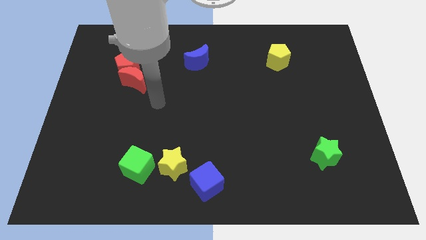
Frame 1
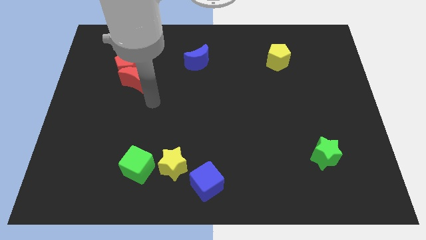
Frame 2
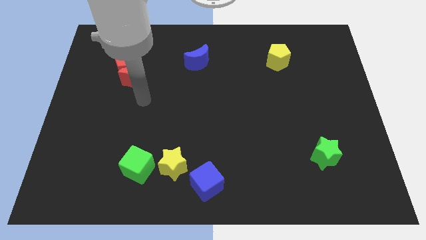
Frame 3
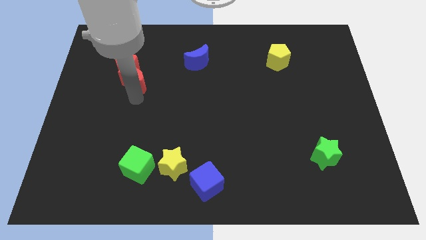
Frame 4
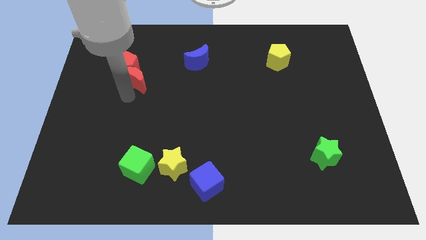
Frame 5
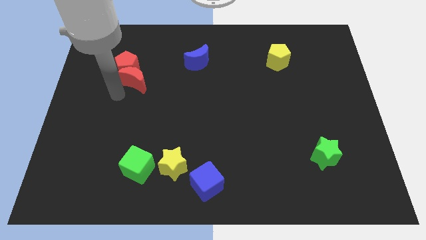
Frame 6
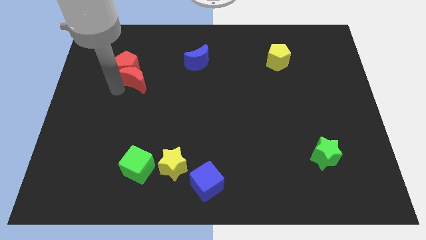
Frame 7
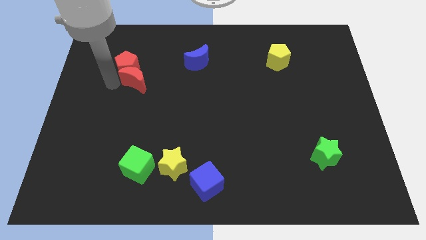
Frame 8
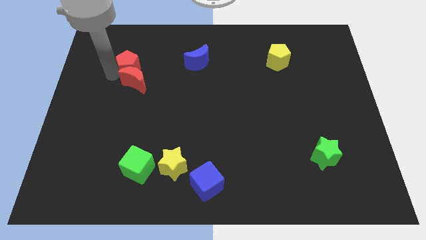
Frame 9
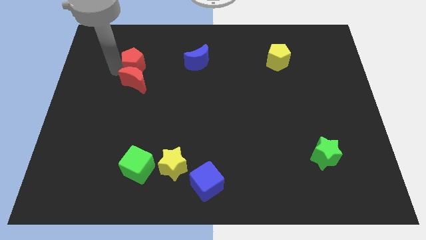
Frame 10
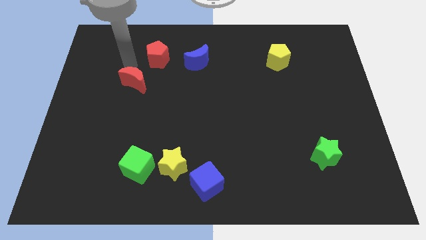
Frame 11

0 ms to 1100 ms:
move the red moon away from the red pentagon

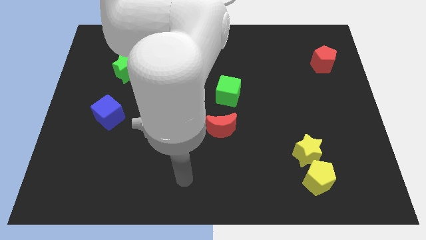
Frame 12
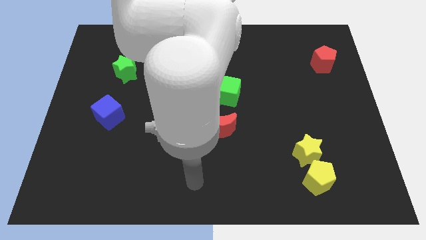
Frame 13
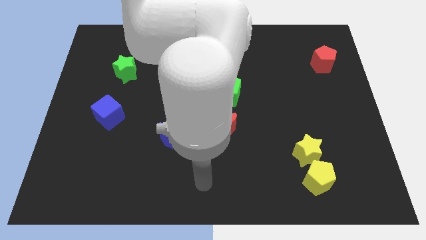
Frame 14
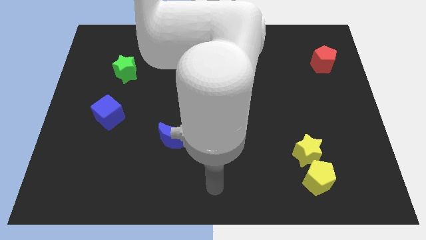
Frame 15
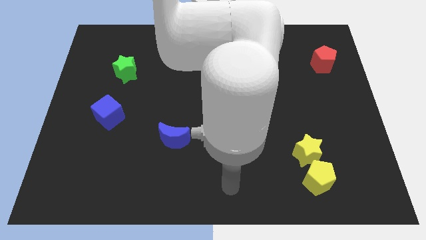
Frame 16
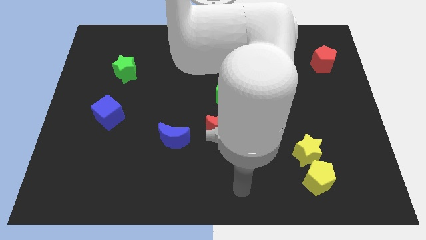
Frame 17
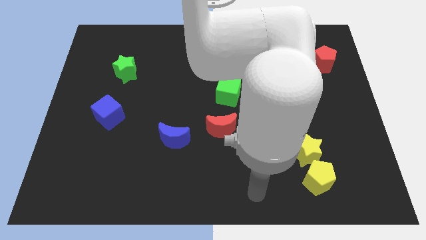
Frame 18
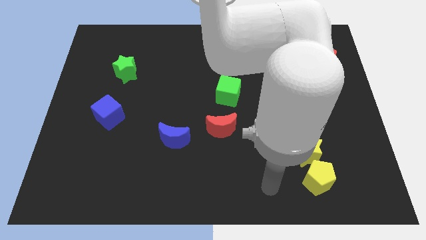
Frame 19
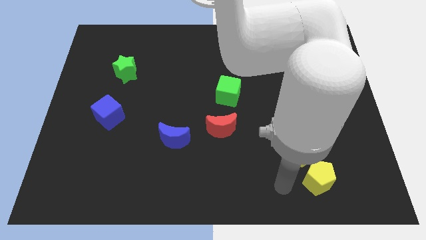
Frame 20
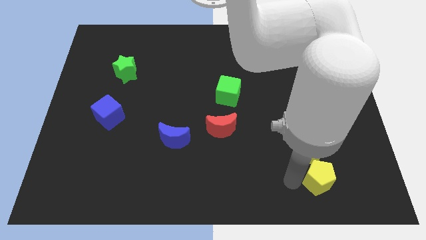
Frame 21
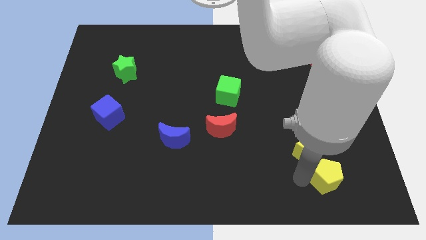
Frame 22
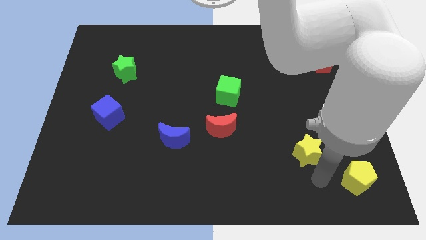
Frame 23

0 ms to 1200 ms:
separate the yellow star from the yellow pentagon

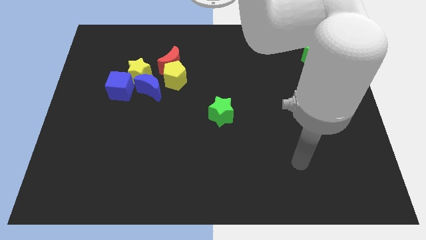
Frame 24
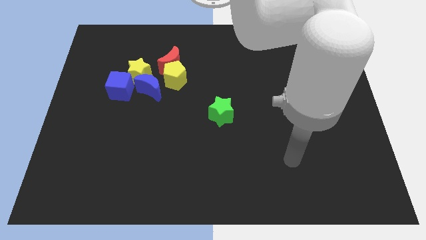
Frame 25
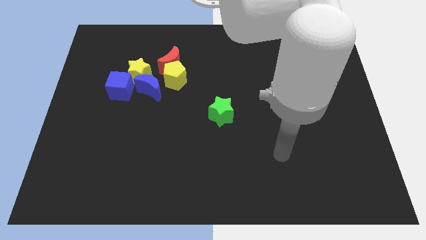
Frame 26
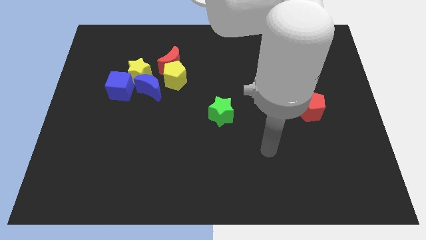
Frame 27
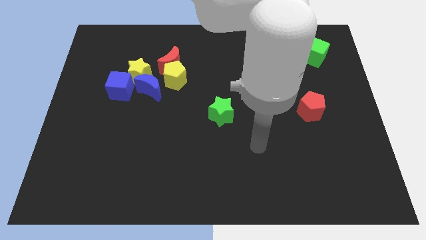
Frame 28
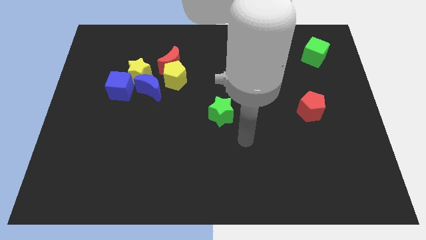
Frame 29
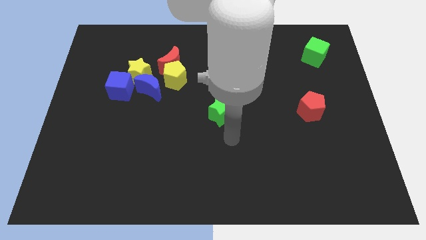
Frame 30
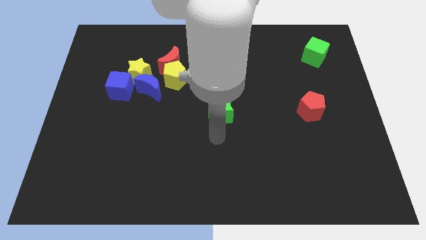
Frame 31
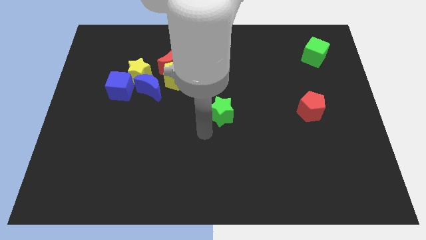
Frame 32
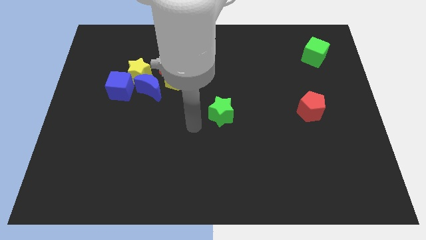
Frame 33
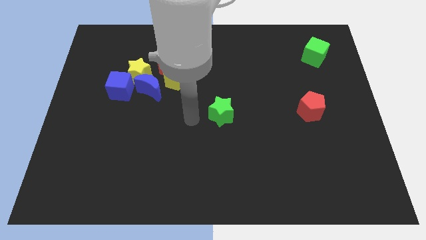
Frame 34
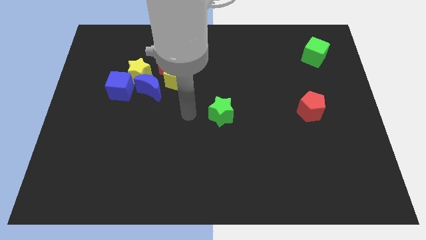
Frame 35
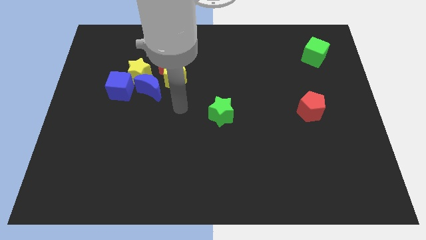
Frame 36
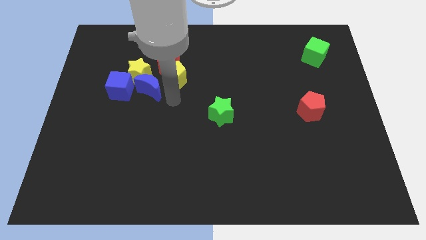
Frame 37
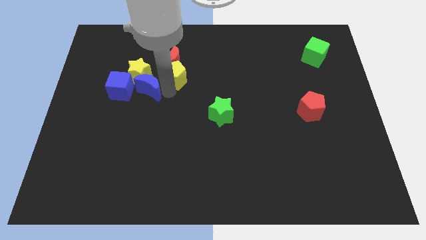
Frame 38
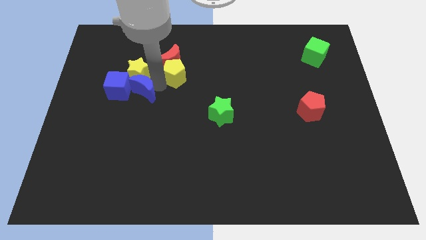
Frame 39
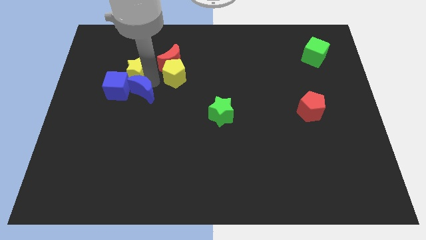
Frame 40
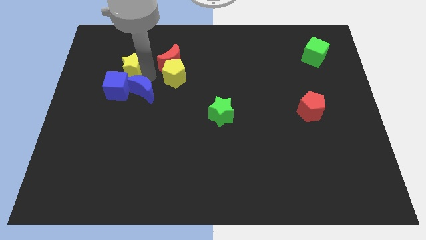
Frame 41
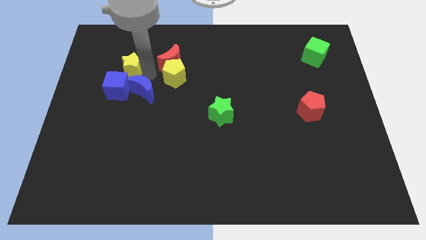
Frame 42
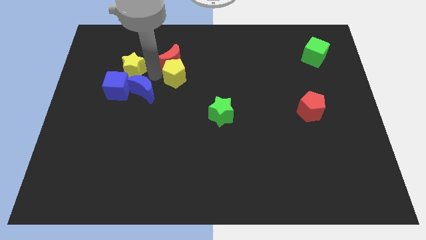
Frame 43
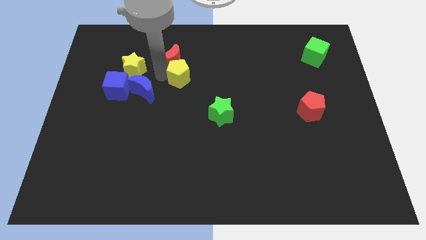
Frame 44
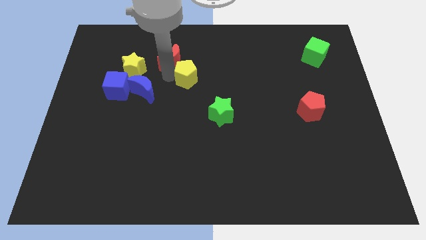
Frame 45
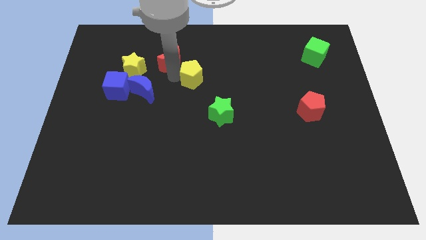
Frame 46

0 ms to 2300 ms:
separate the yellow pentagon from the group of blocks

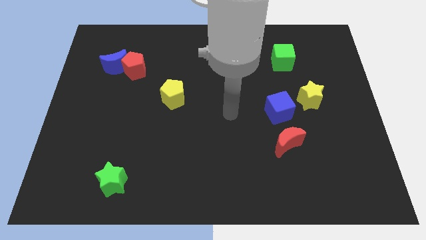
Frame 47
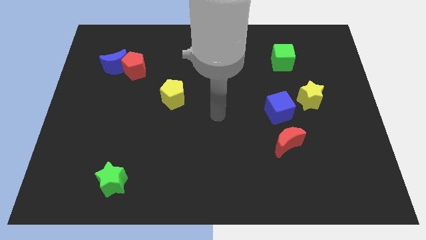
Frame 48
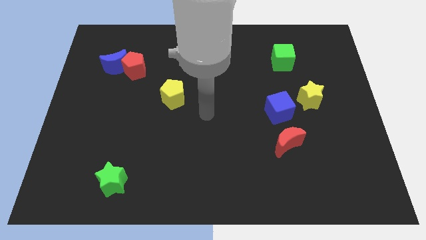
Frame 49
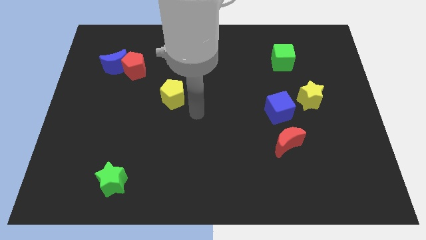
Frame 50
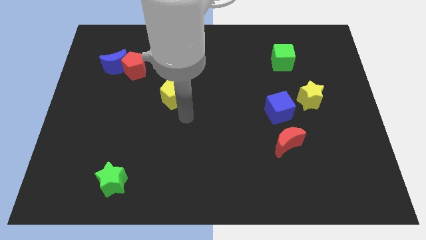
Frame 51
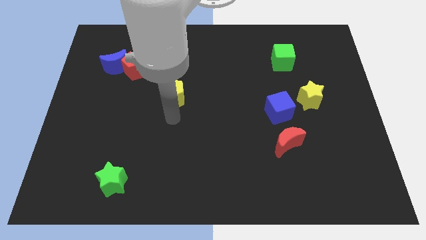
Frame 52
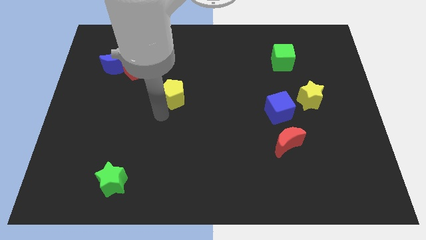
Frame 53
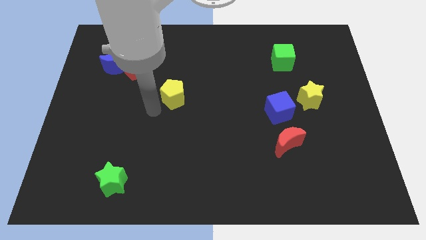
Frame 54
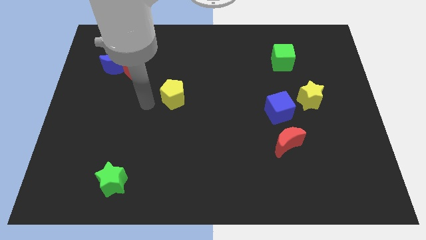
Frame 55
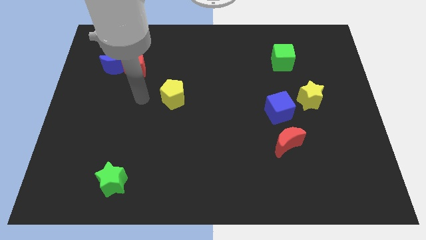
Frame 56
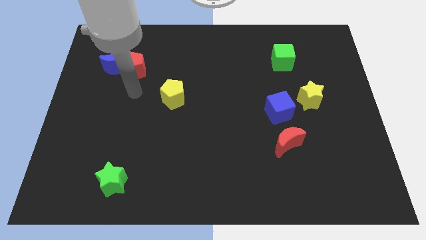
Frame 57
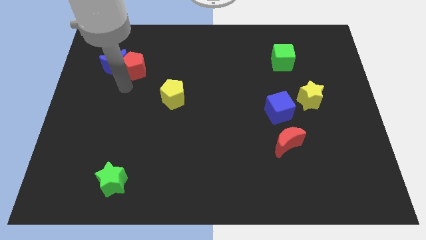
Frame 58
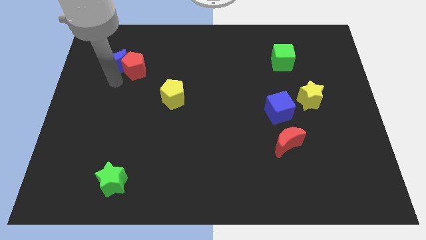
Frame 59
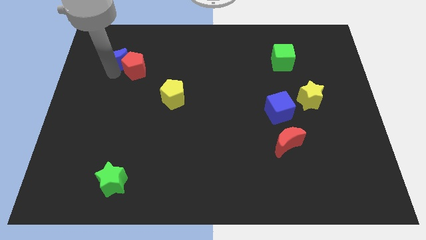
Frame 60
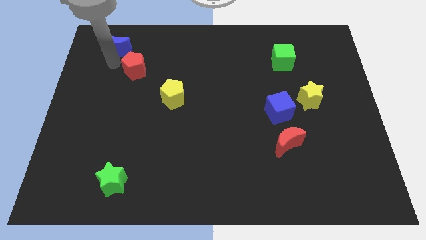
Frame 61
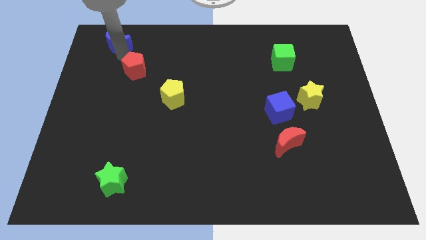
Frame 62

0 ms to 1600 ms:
pull the red pentagon apart from the blue moon

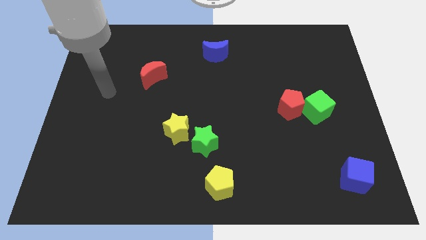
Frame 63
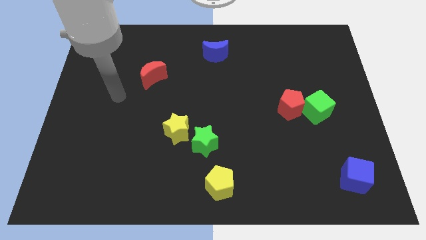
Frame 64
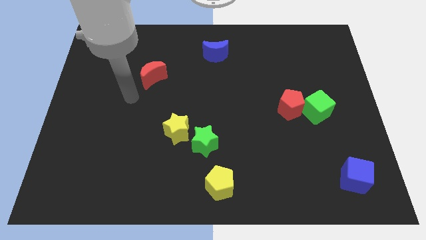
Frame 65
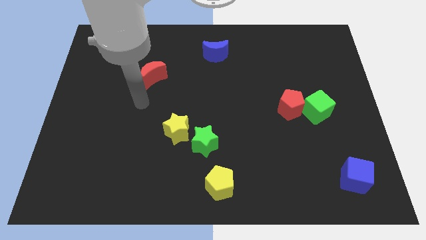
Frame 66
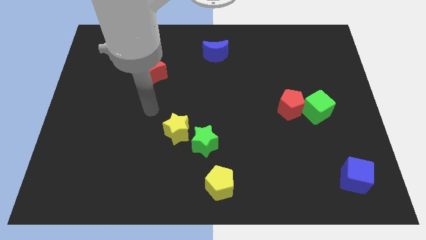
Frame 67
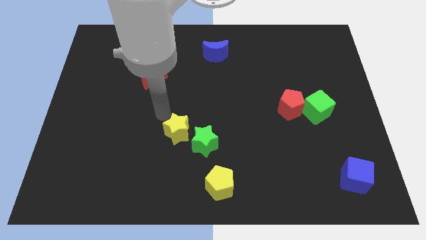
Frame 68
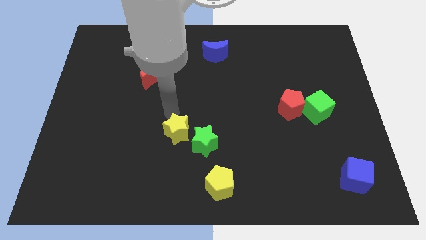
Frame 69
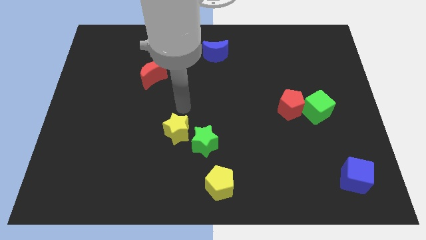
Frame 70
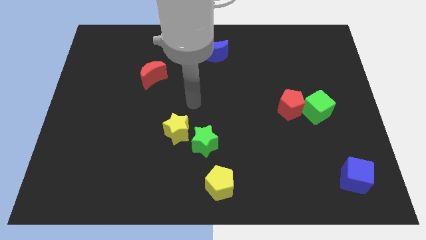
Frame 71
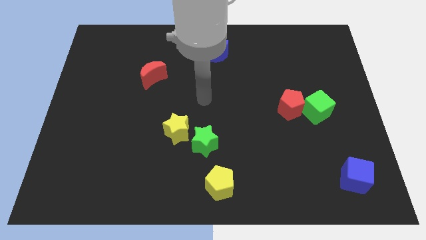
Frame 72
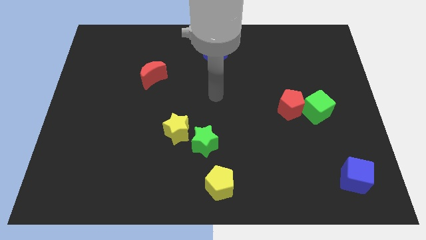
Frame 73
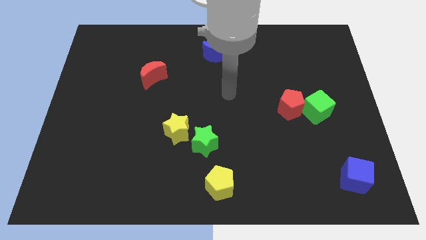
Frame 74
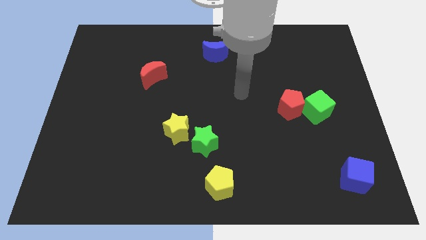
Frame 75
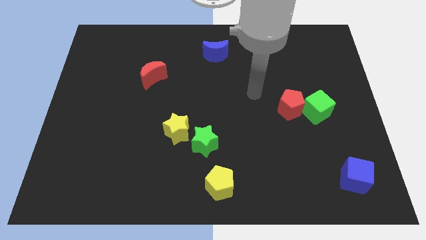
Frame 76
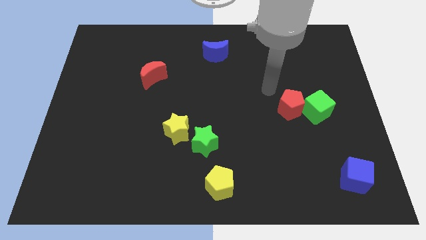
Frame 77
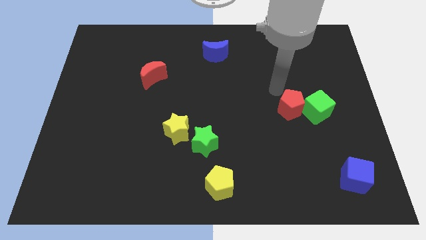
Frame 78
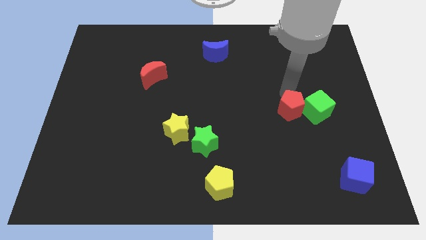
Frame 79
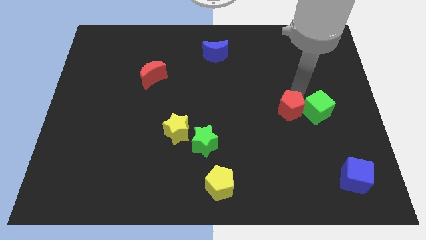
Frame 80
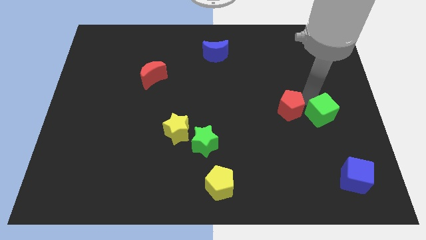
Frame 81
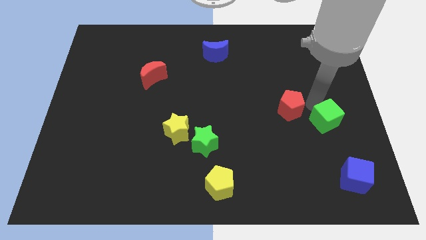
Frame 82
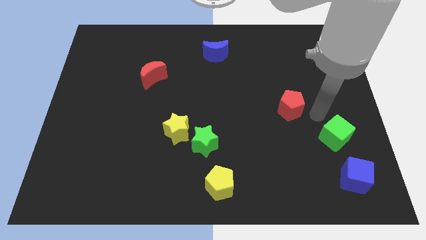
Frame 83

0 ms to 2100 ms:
move the red pentagon away from the green cube

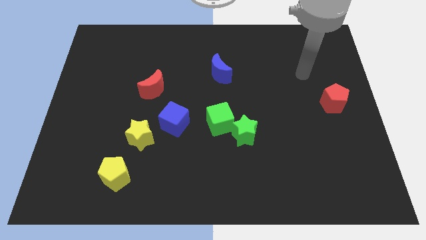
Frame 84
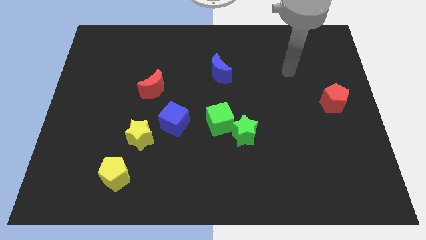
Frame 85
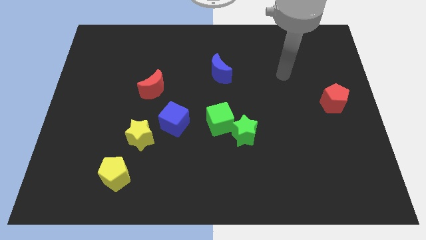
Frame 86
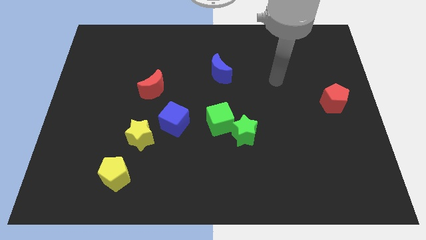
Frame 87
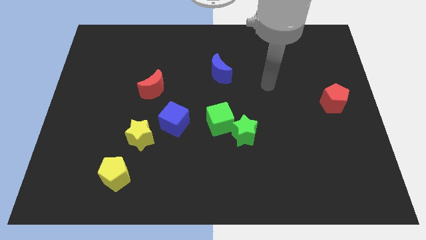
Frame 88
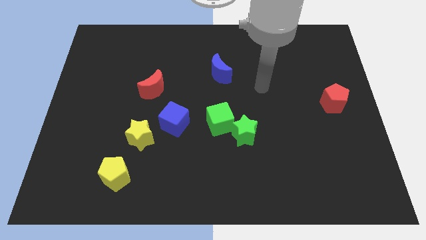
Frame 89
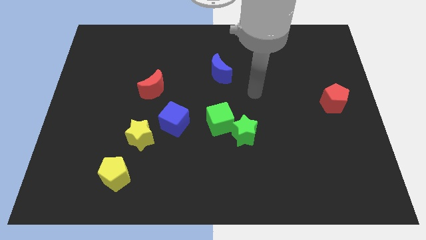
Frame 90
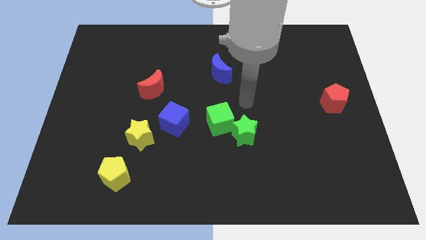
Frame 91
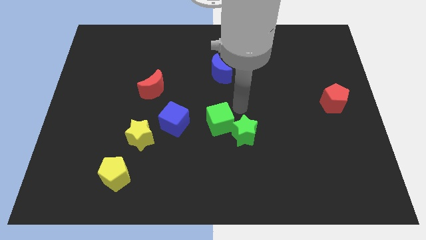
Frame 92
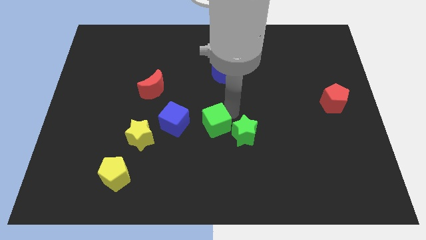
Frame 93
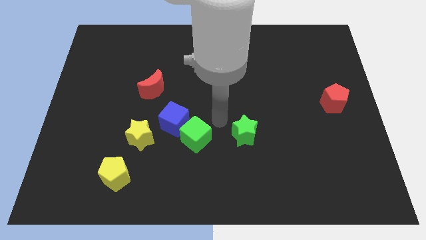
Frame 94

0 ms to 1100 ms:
pull the green star apart from the green cube
